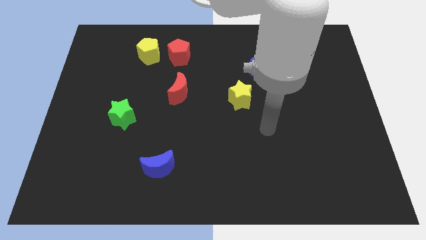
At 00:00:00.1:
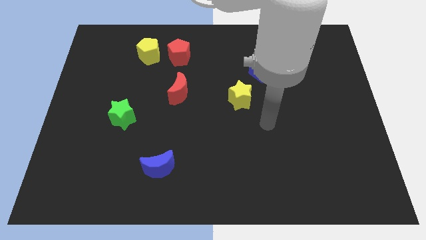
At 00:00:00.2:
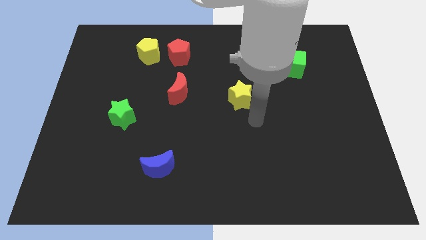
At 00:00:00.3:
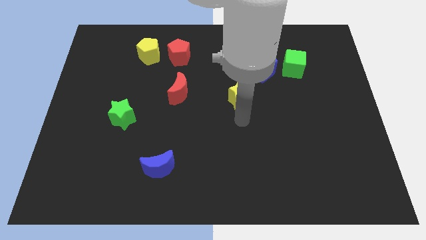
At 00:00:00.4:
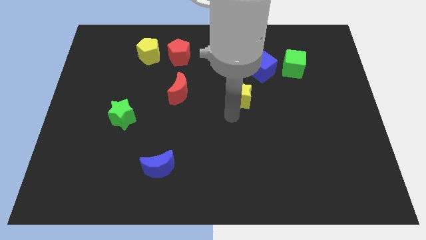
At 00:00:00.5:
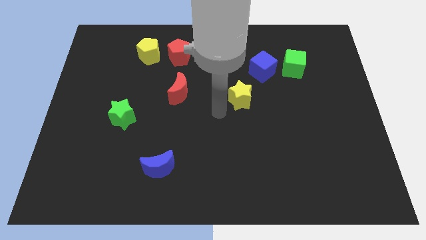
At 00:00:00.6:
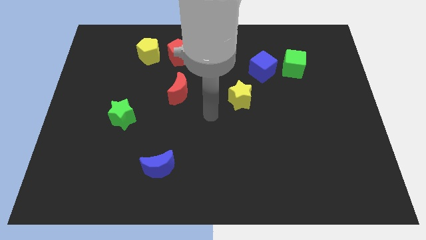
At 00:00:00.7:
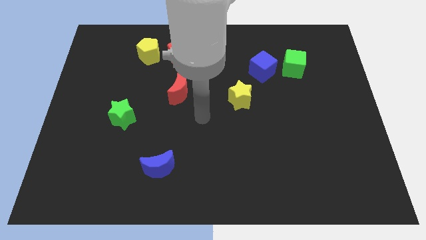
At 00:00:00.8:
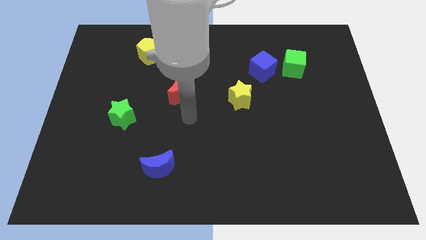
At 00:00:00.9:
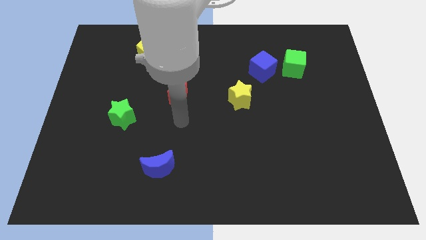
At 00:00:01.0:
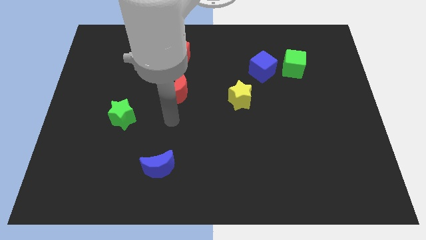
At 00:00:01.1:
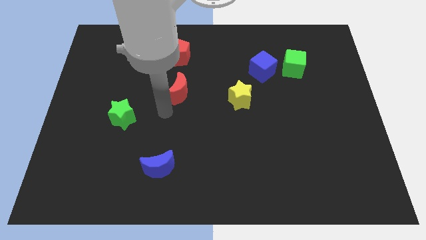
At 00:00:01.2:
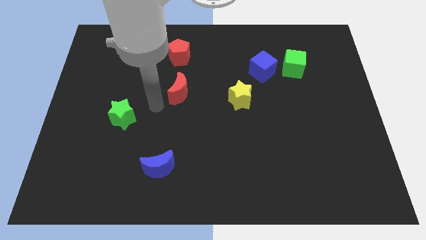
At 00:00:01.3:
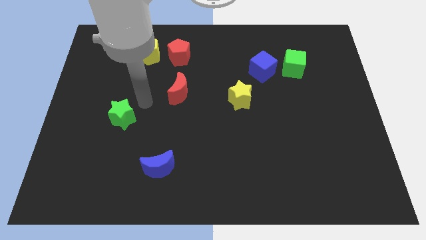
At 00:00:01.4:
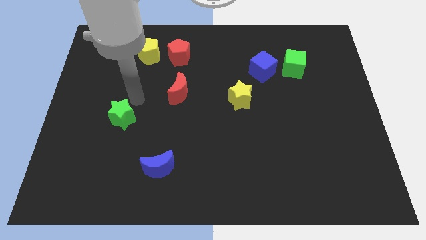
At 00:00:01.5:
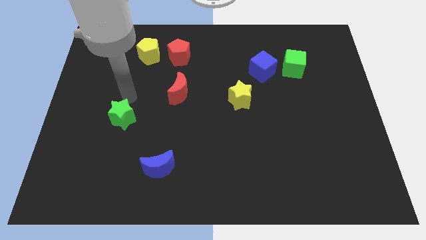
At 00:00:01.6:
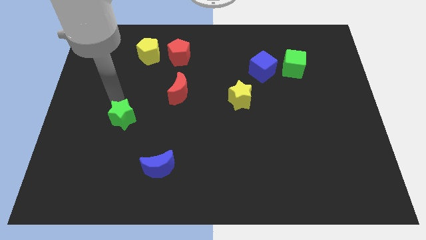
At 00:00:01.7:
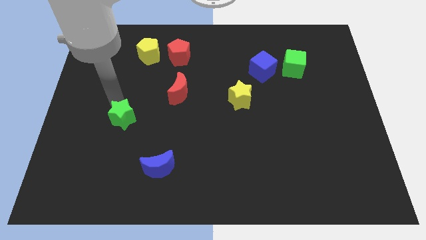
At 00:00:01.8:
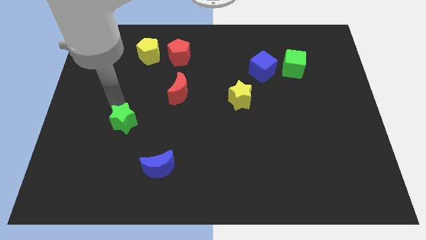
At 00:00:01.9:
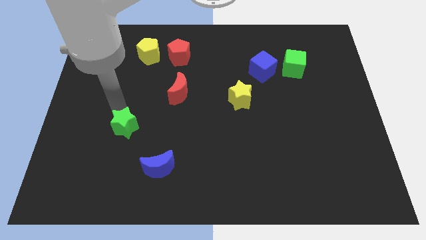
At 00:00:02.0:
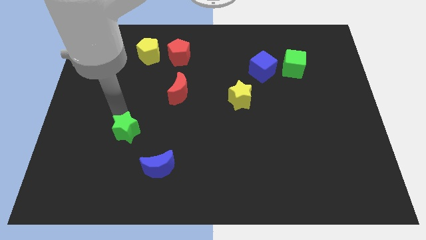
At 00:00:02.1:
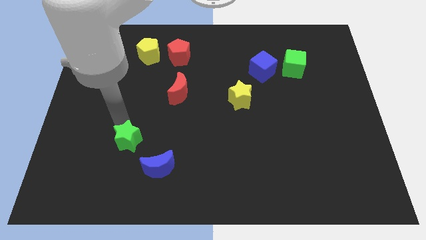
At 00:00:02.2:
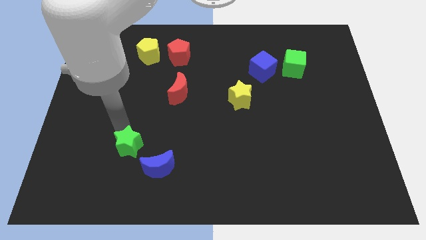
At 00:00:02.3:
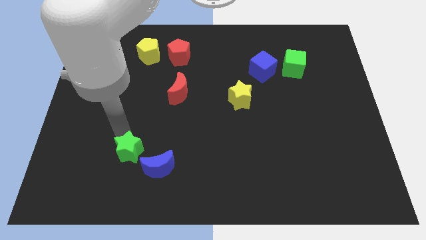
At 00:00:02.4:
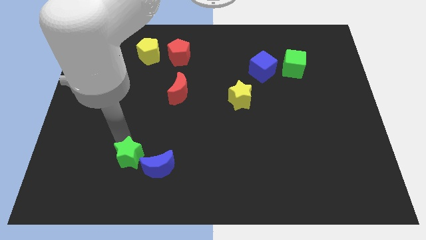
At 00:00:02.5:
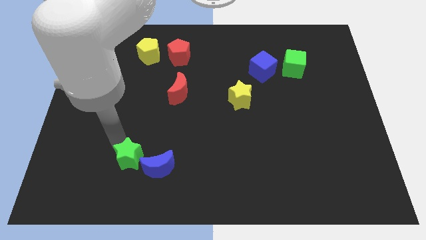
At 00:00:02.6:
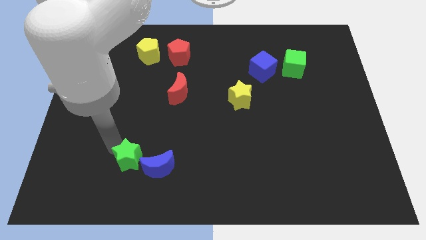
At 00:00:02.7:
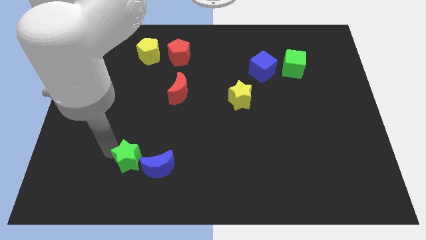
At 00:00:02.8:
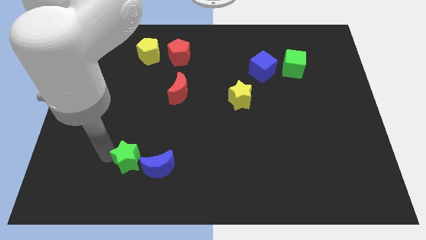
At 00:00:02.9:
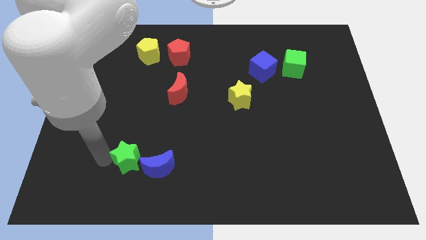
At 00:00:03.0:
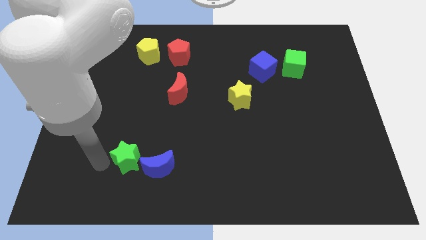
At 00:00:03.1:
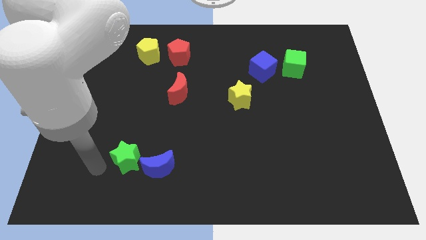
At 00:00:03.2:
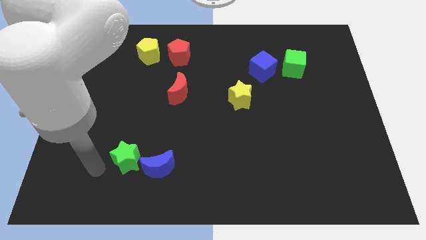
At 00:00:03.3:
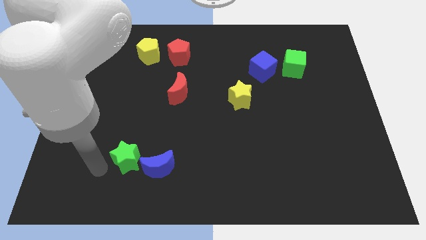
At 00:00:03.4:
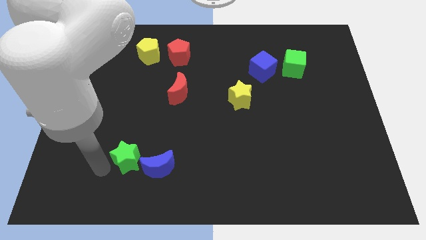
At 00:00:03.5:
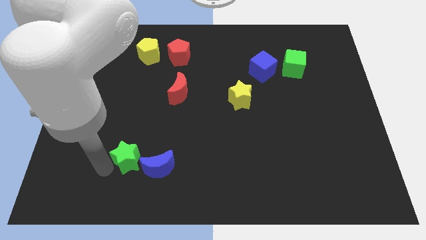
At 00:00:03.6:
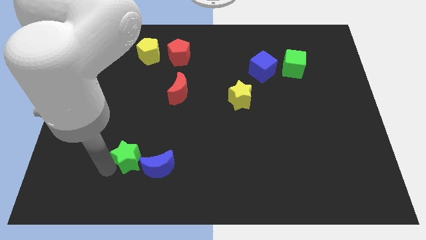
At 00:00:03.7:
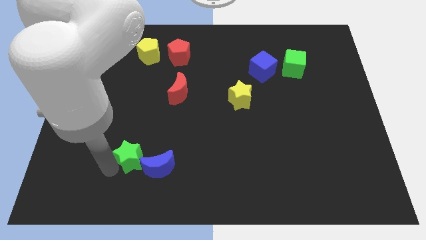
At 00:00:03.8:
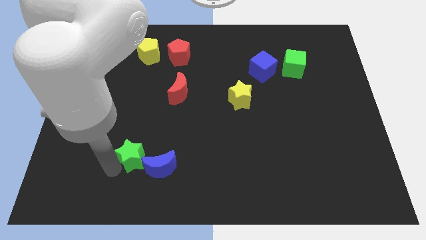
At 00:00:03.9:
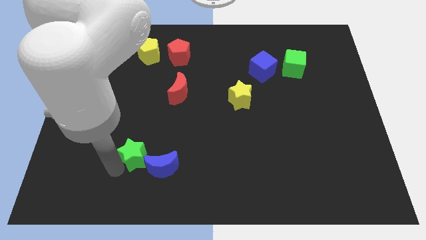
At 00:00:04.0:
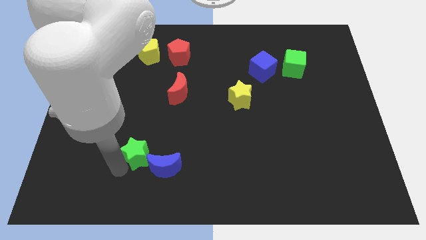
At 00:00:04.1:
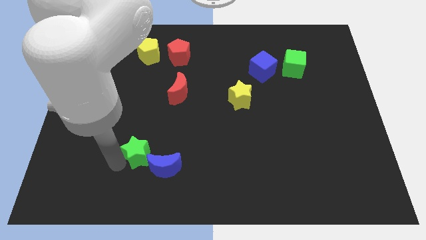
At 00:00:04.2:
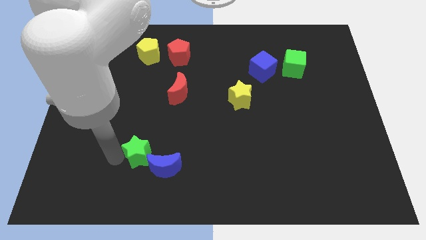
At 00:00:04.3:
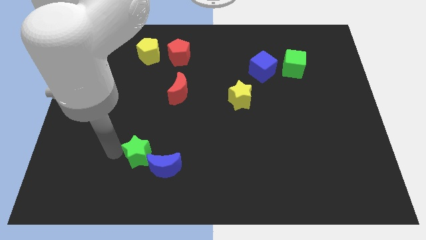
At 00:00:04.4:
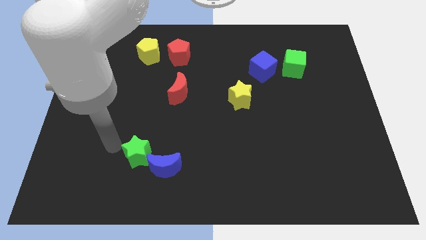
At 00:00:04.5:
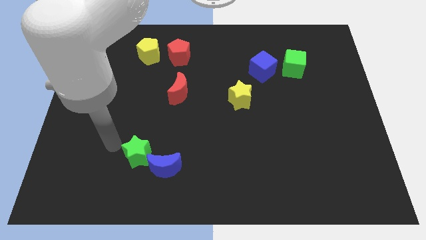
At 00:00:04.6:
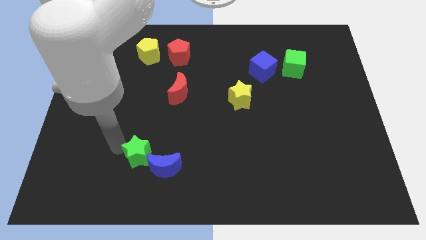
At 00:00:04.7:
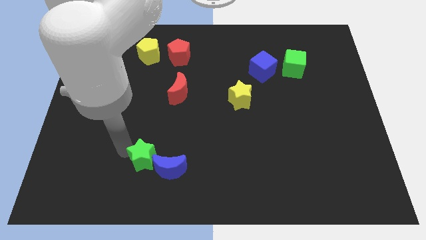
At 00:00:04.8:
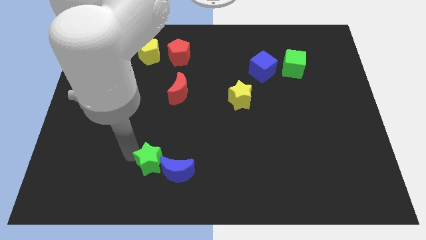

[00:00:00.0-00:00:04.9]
put the green star close to the blue moon

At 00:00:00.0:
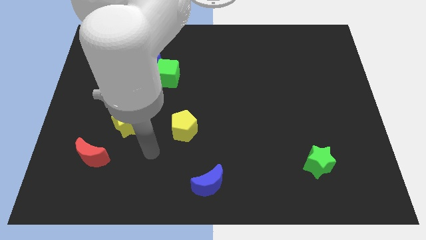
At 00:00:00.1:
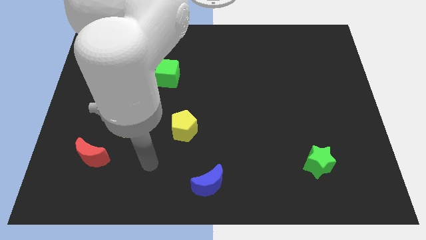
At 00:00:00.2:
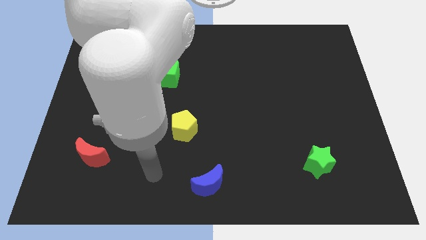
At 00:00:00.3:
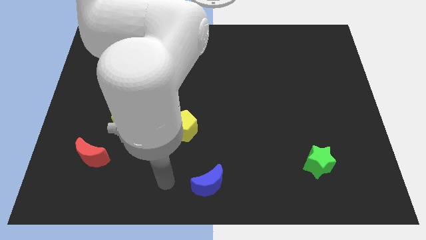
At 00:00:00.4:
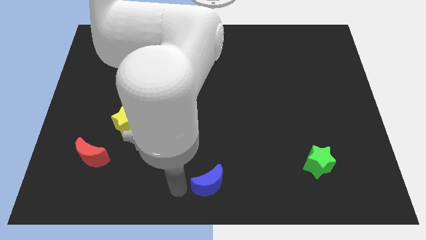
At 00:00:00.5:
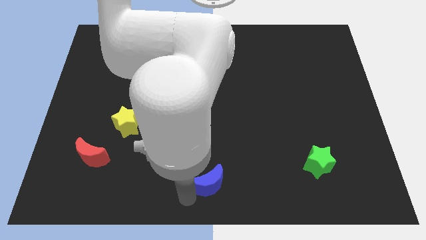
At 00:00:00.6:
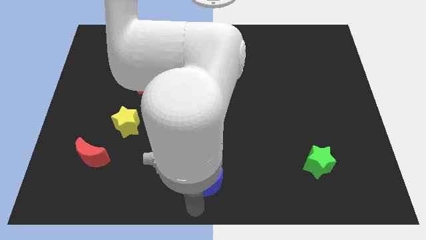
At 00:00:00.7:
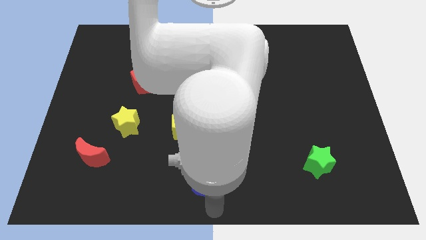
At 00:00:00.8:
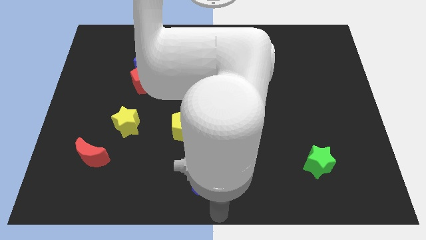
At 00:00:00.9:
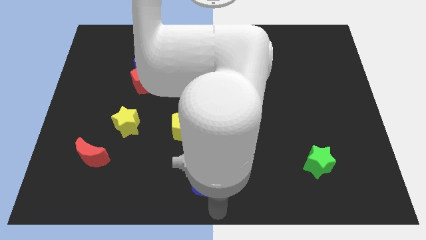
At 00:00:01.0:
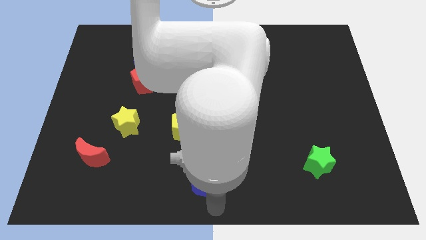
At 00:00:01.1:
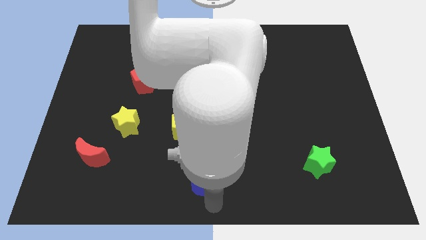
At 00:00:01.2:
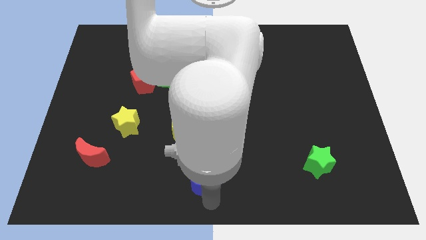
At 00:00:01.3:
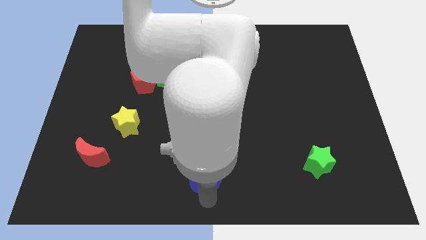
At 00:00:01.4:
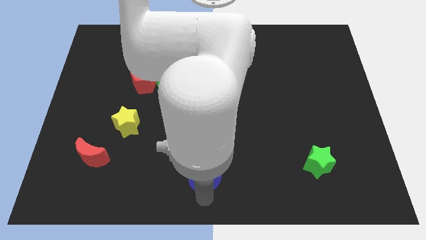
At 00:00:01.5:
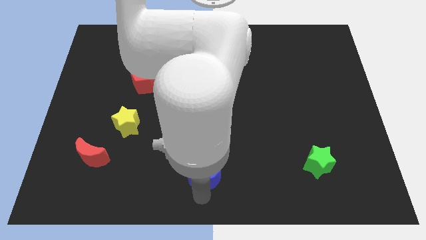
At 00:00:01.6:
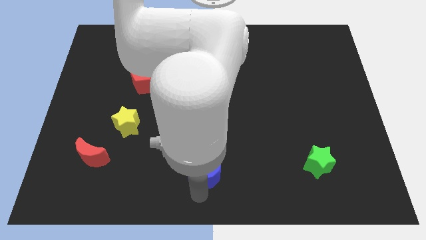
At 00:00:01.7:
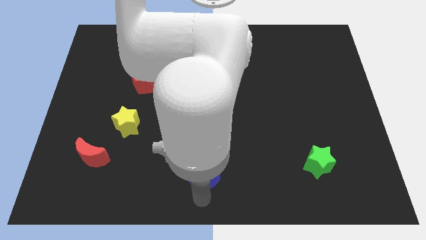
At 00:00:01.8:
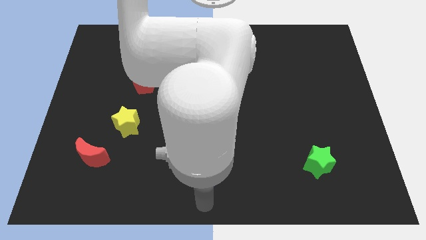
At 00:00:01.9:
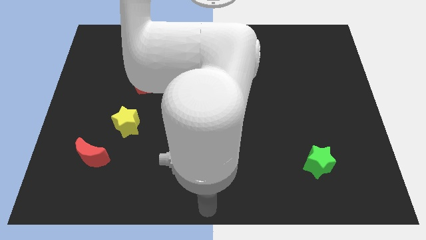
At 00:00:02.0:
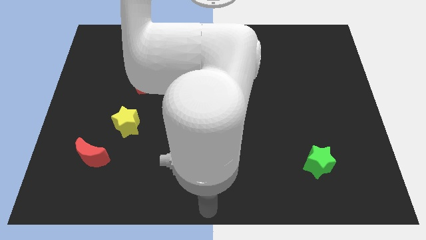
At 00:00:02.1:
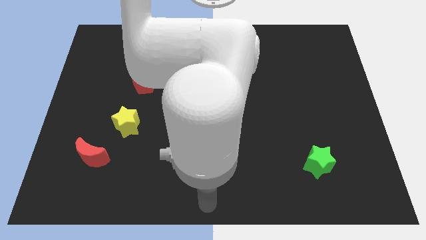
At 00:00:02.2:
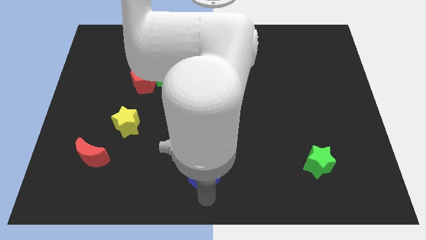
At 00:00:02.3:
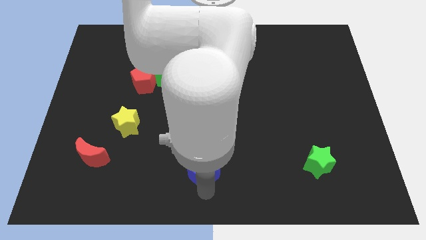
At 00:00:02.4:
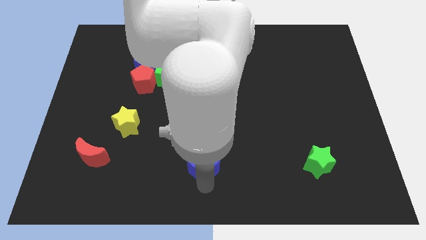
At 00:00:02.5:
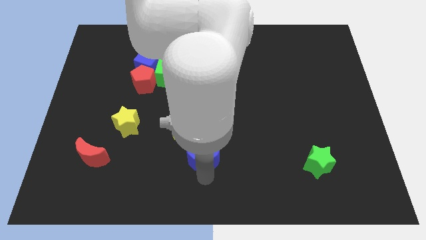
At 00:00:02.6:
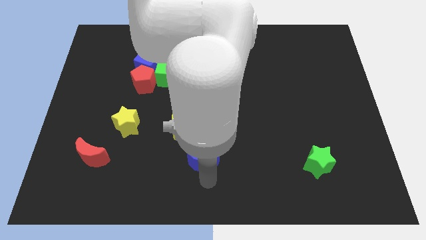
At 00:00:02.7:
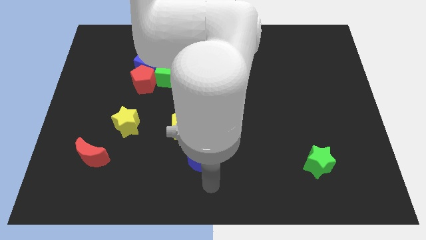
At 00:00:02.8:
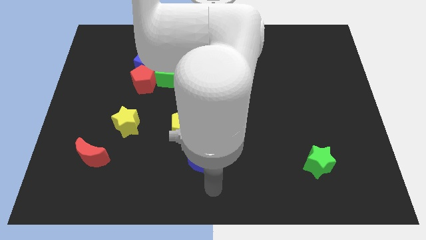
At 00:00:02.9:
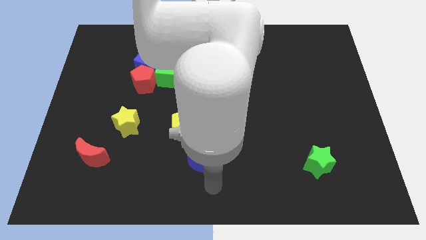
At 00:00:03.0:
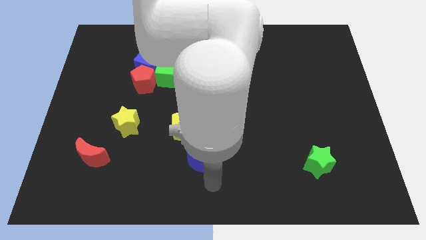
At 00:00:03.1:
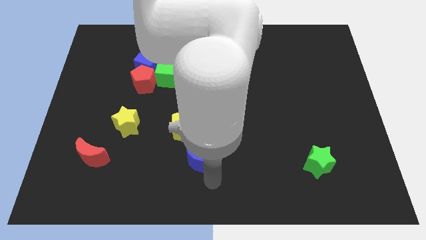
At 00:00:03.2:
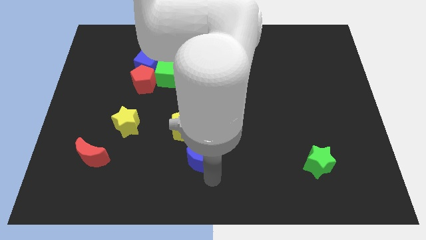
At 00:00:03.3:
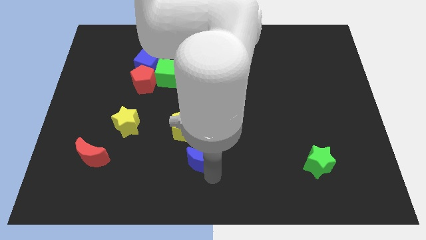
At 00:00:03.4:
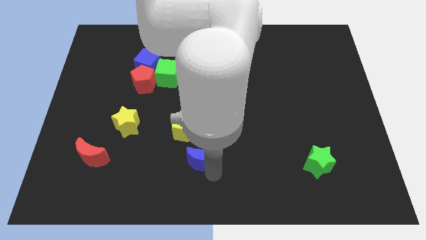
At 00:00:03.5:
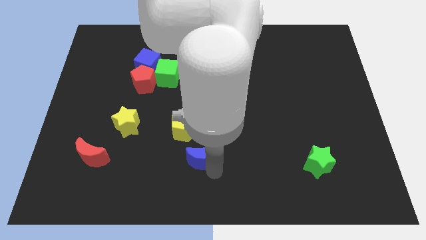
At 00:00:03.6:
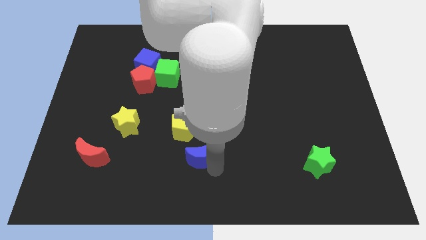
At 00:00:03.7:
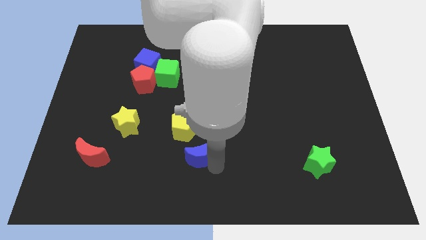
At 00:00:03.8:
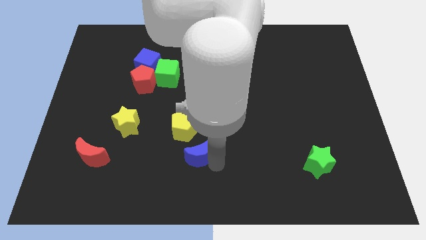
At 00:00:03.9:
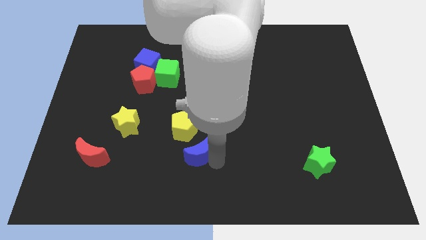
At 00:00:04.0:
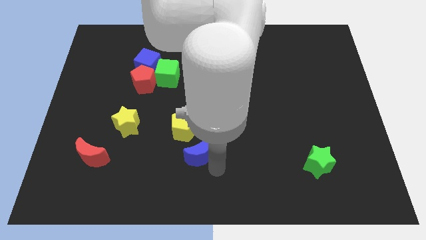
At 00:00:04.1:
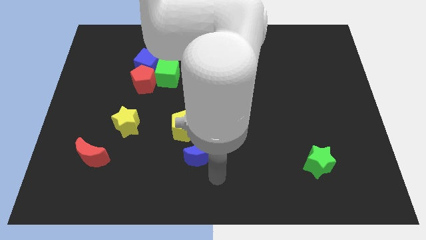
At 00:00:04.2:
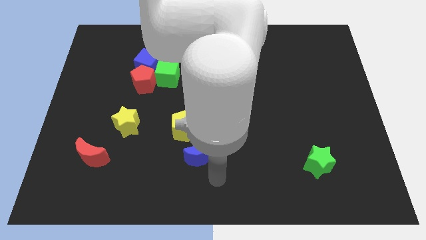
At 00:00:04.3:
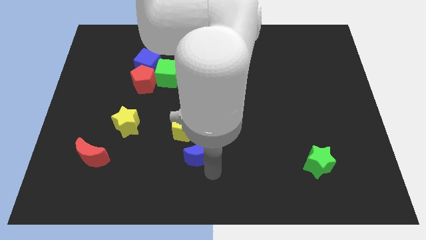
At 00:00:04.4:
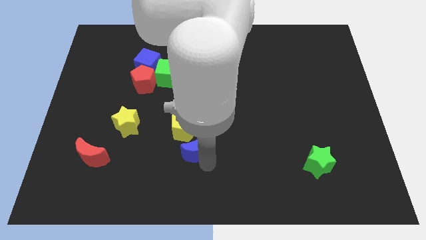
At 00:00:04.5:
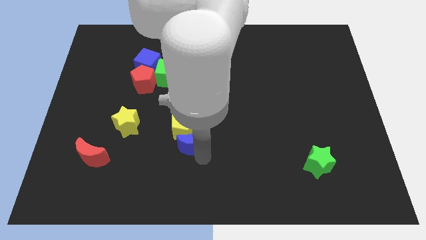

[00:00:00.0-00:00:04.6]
slide the blue moon towards the yellow pentagon
